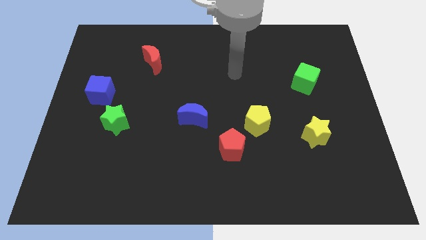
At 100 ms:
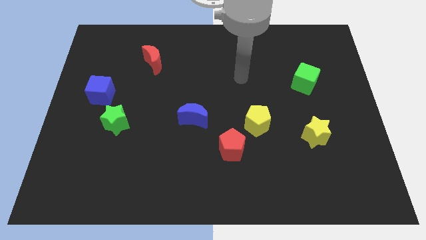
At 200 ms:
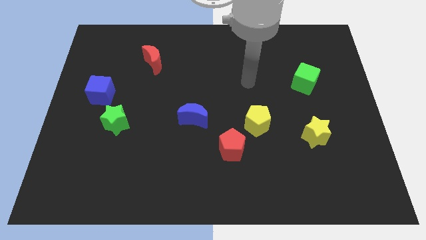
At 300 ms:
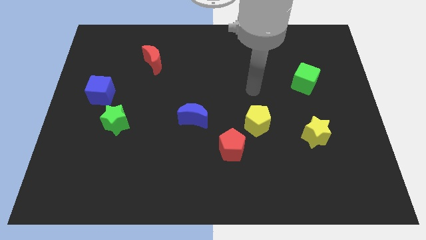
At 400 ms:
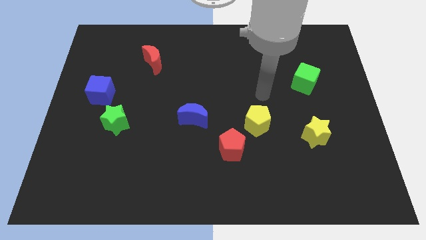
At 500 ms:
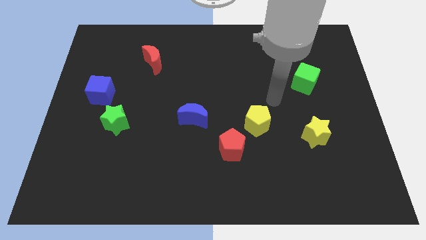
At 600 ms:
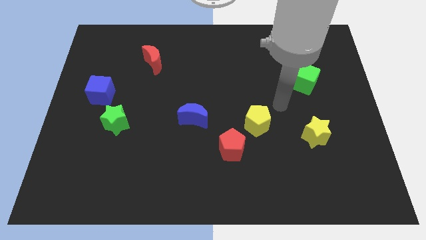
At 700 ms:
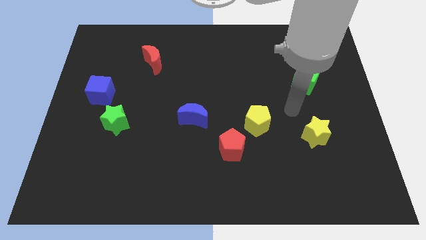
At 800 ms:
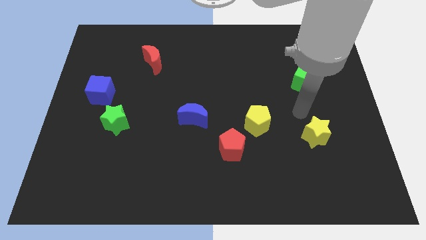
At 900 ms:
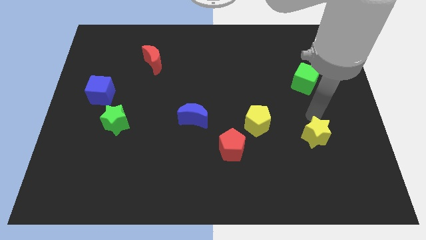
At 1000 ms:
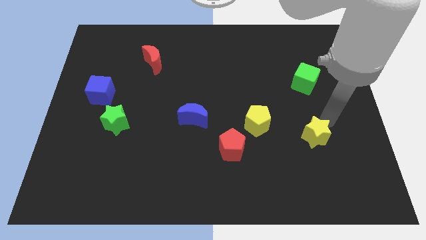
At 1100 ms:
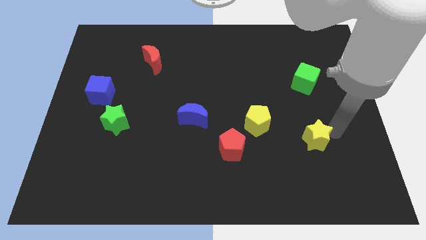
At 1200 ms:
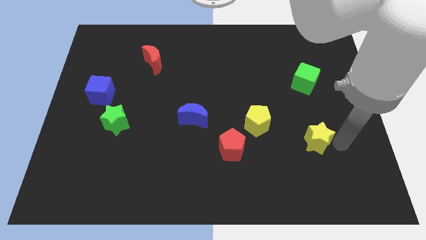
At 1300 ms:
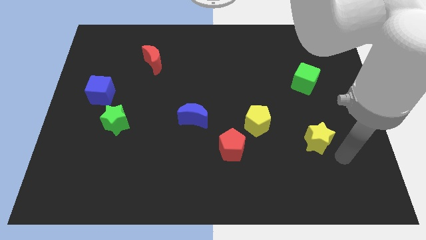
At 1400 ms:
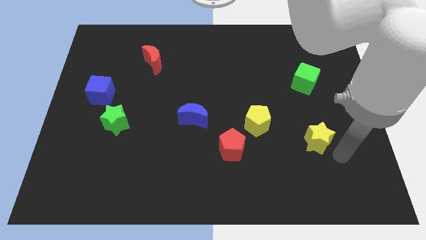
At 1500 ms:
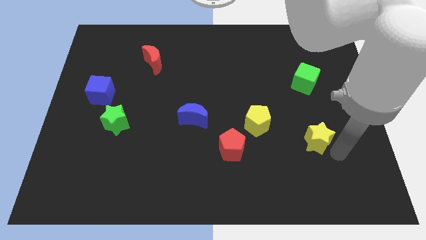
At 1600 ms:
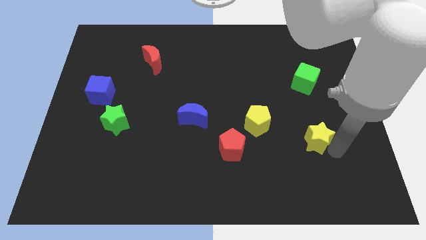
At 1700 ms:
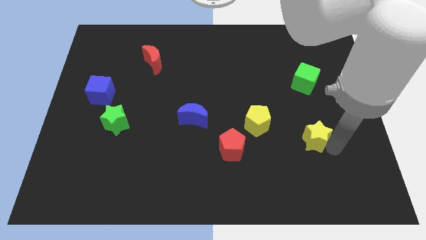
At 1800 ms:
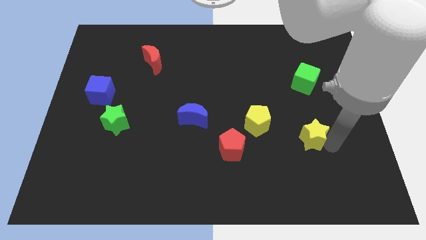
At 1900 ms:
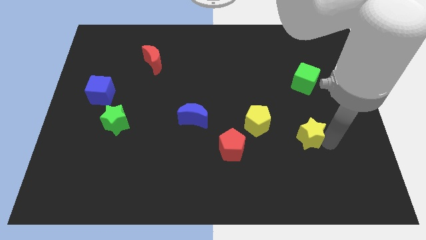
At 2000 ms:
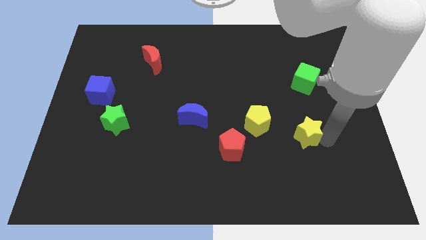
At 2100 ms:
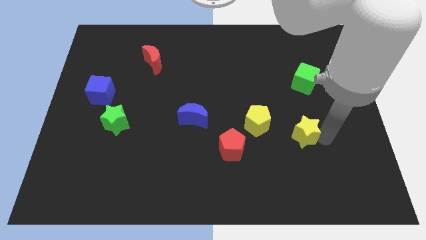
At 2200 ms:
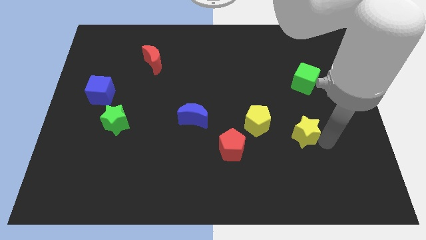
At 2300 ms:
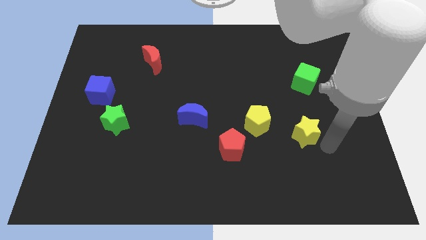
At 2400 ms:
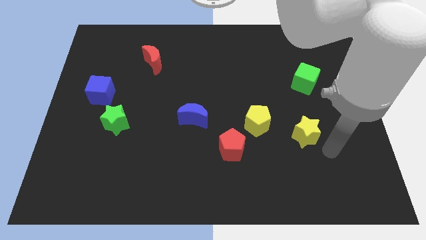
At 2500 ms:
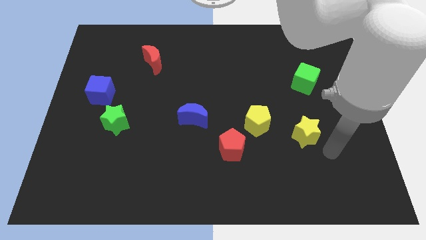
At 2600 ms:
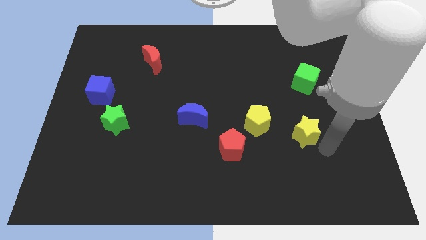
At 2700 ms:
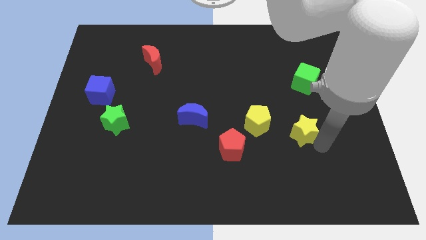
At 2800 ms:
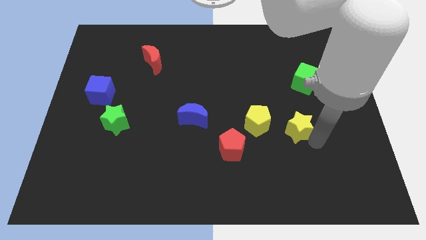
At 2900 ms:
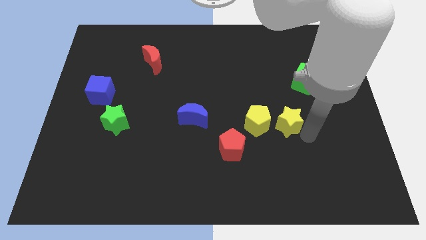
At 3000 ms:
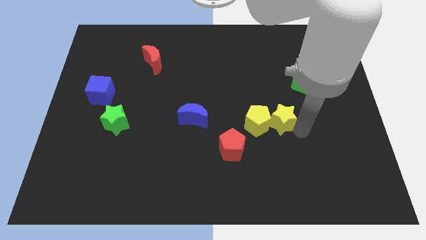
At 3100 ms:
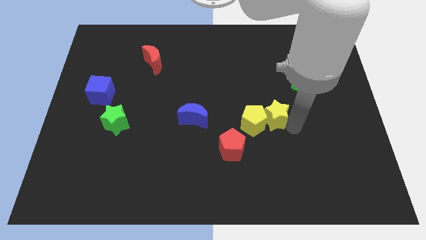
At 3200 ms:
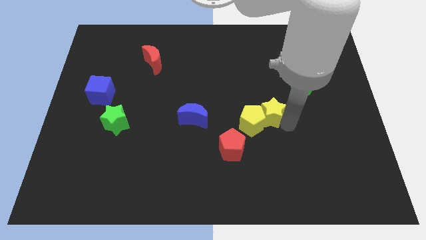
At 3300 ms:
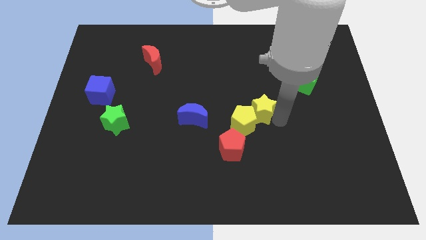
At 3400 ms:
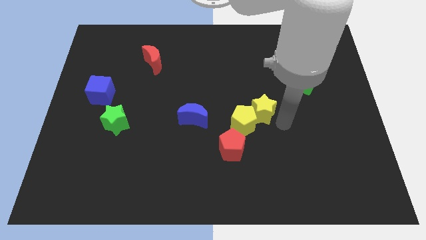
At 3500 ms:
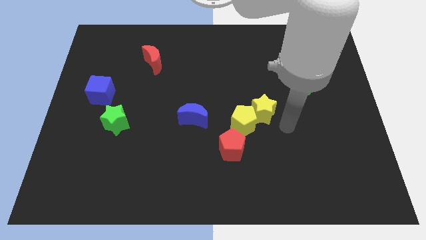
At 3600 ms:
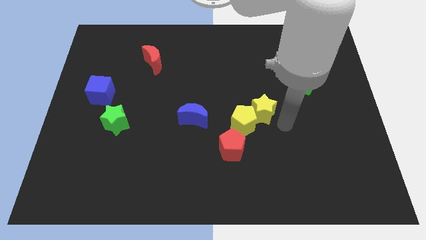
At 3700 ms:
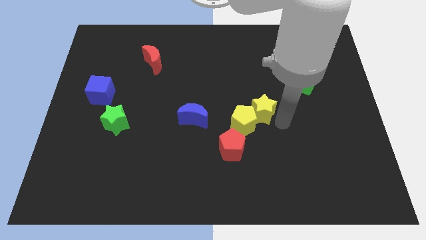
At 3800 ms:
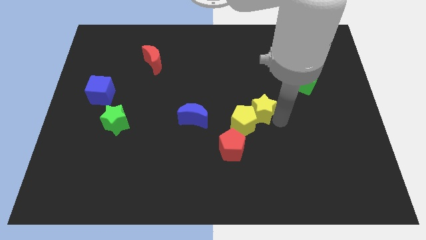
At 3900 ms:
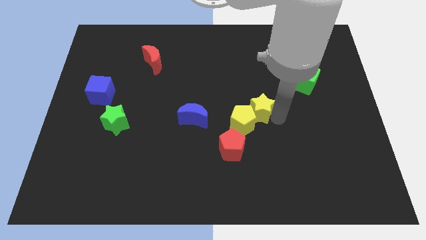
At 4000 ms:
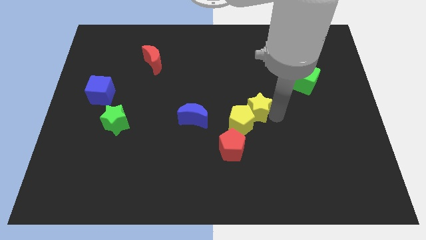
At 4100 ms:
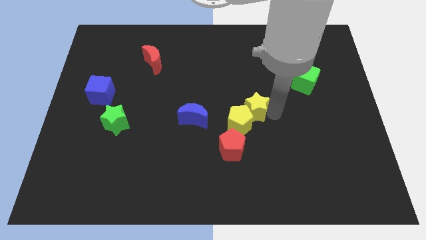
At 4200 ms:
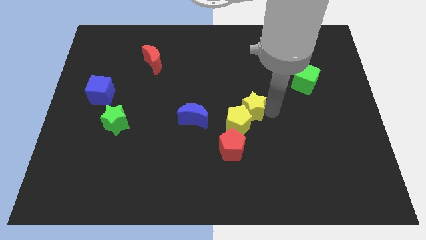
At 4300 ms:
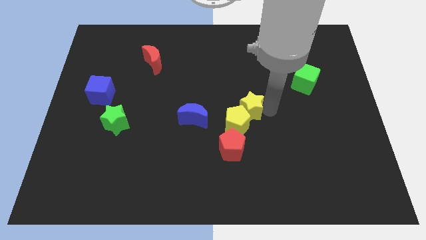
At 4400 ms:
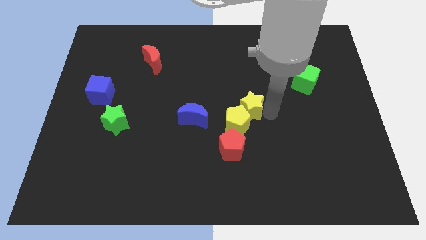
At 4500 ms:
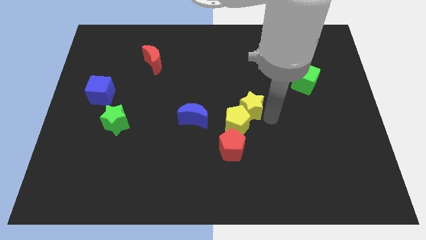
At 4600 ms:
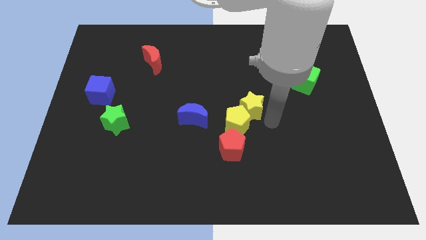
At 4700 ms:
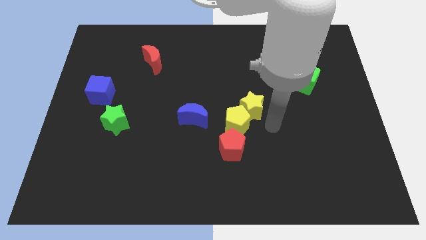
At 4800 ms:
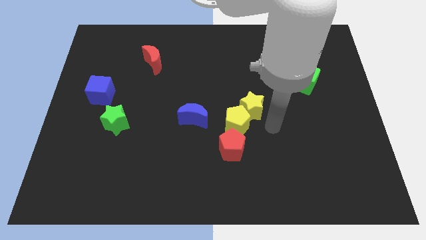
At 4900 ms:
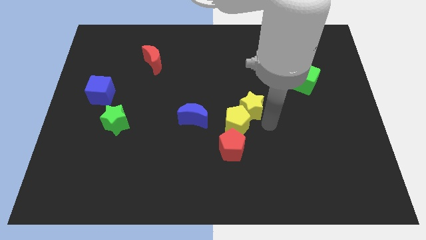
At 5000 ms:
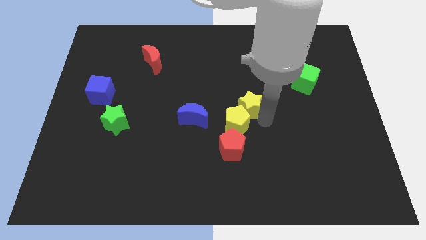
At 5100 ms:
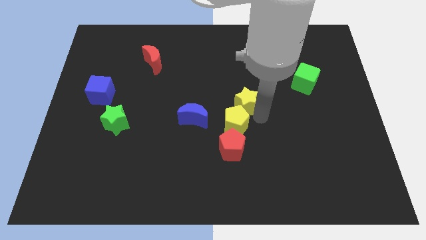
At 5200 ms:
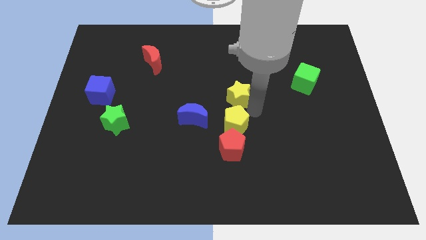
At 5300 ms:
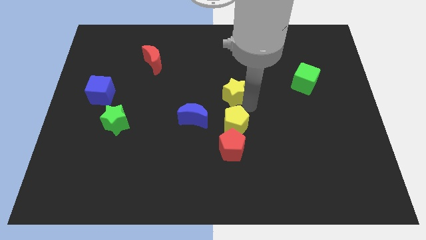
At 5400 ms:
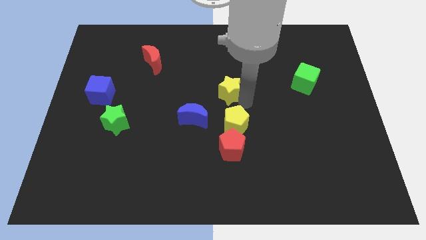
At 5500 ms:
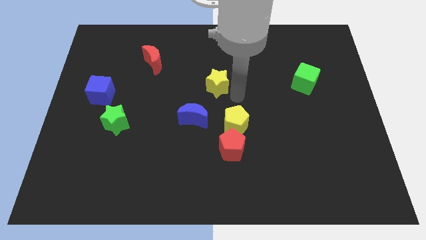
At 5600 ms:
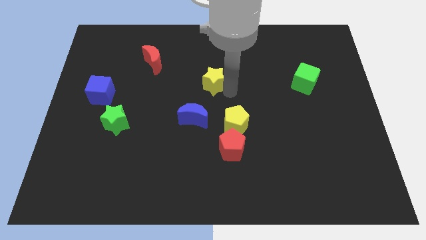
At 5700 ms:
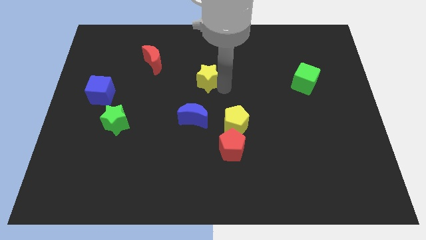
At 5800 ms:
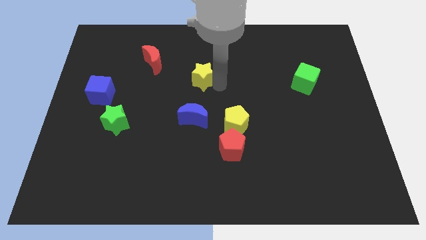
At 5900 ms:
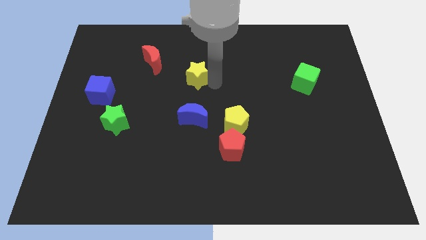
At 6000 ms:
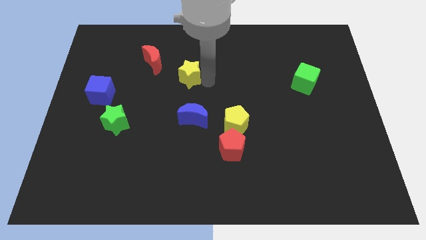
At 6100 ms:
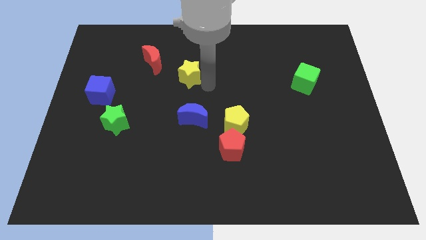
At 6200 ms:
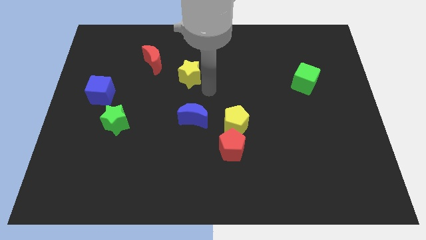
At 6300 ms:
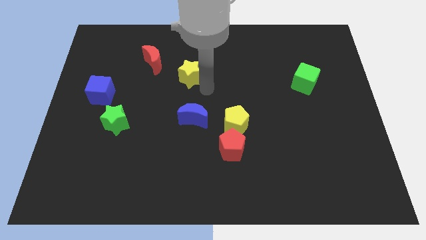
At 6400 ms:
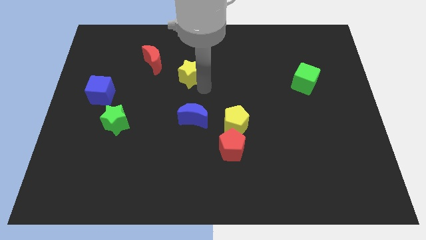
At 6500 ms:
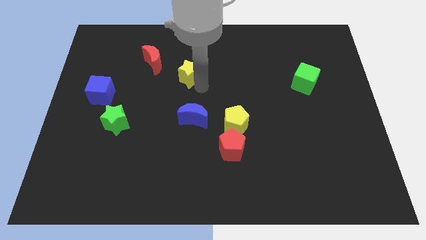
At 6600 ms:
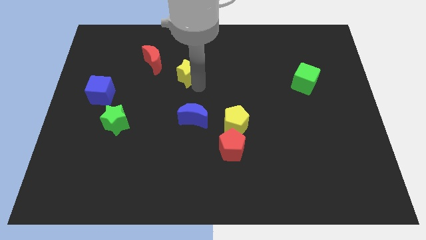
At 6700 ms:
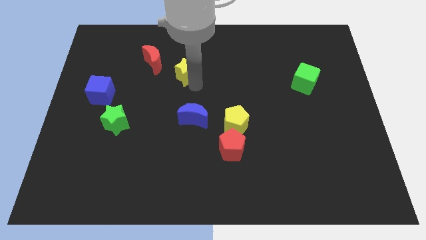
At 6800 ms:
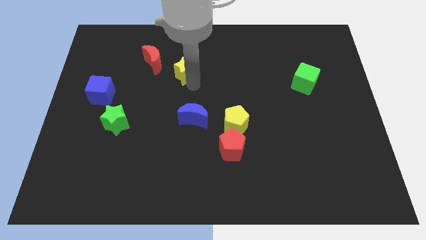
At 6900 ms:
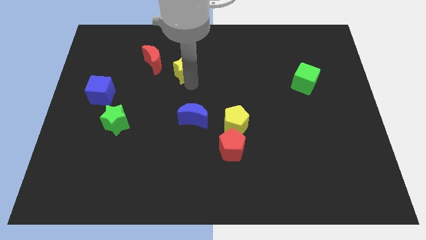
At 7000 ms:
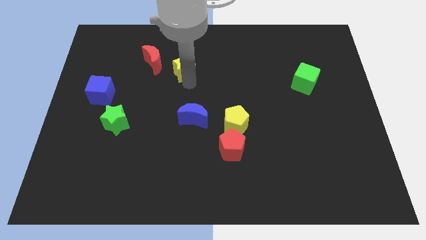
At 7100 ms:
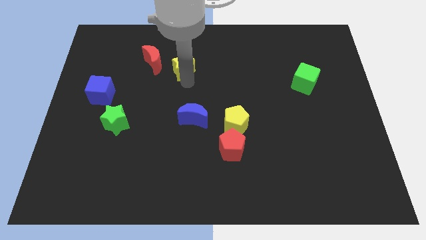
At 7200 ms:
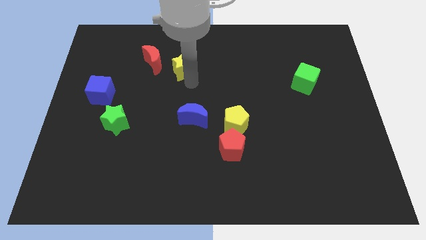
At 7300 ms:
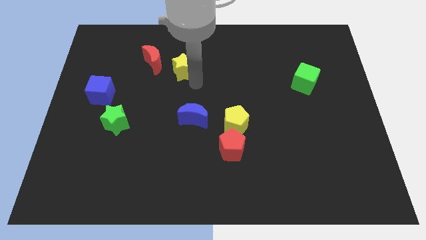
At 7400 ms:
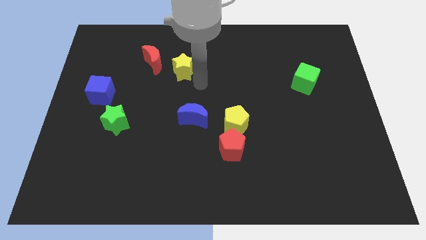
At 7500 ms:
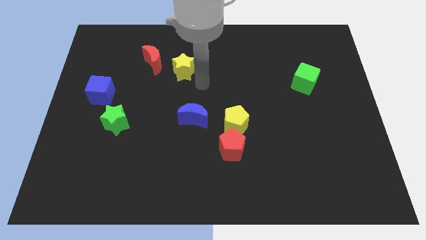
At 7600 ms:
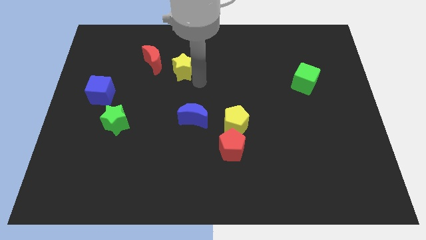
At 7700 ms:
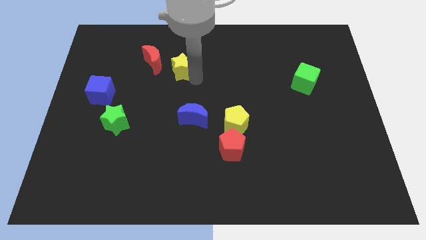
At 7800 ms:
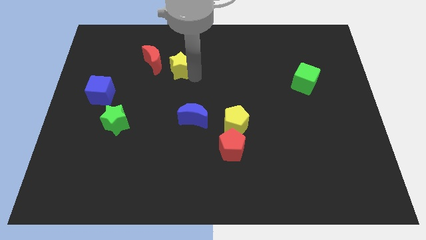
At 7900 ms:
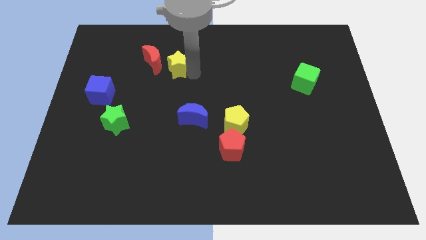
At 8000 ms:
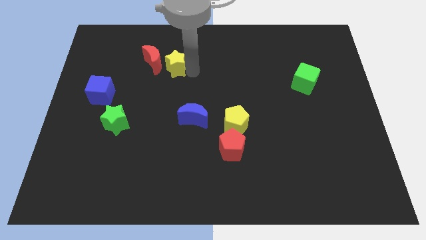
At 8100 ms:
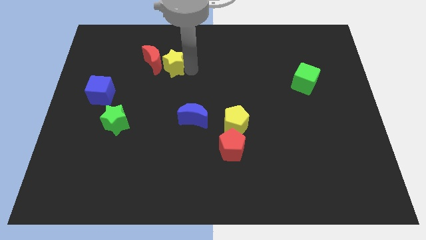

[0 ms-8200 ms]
put the yellow star to the red moon
